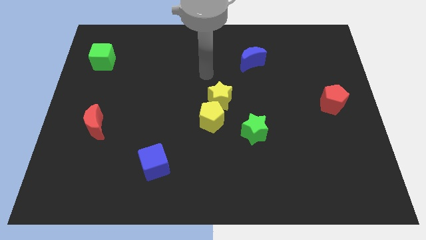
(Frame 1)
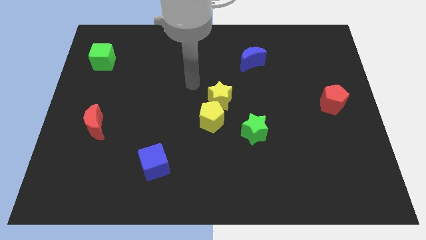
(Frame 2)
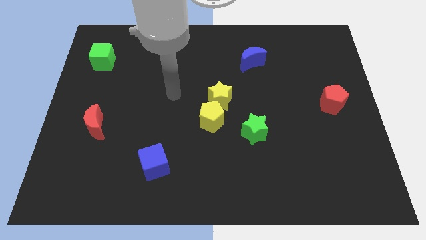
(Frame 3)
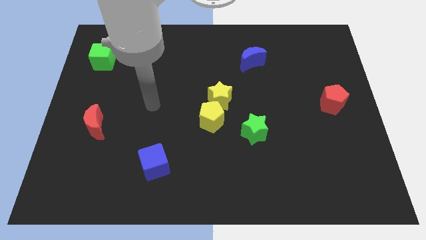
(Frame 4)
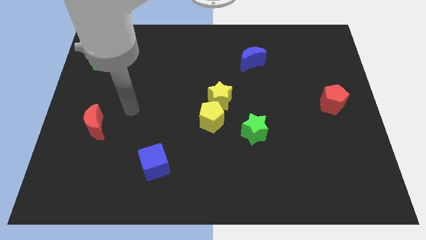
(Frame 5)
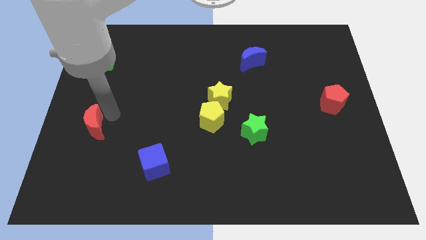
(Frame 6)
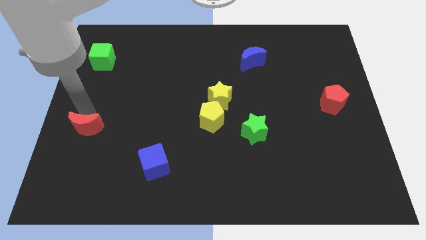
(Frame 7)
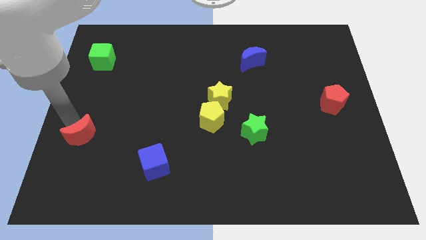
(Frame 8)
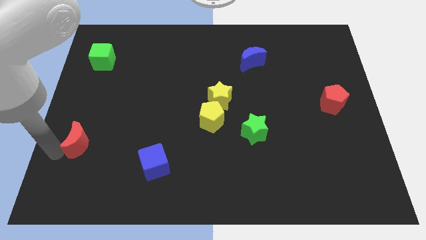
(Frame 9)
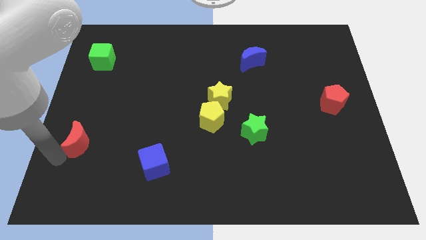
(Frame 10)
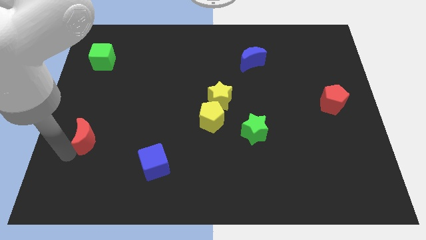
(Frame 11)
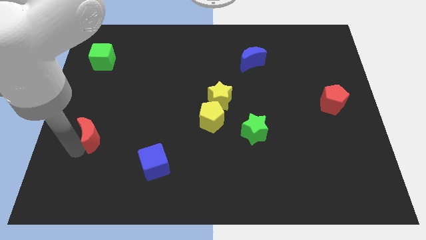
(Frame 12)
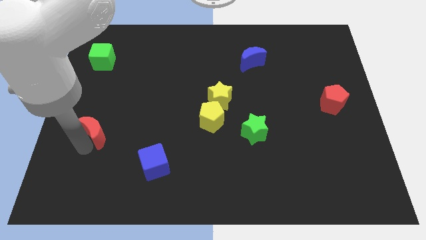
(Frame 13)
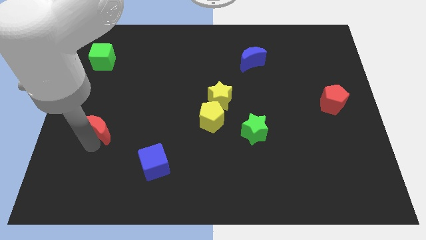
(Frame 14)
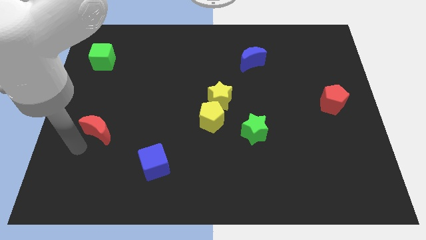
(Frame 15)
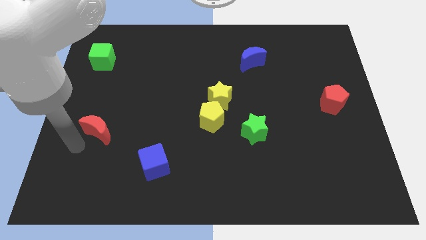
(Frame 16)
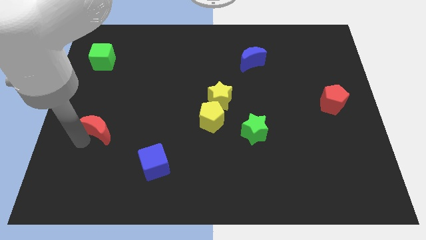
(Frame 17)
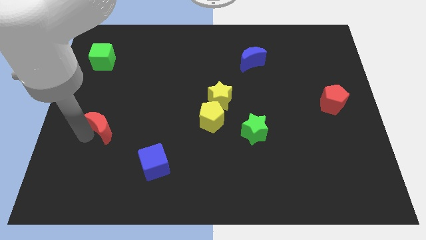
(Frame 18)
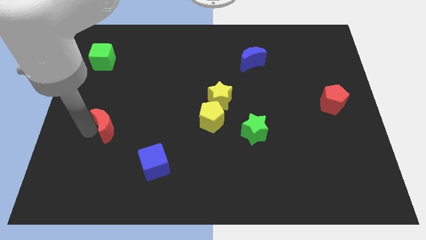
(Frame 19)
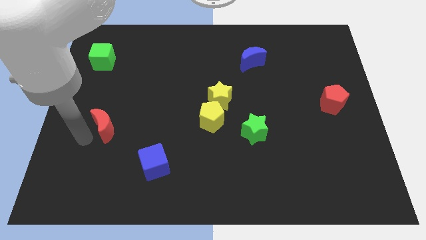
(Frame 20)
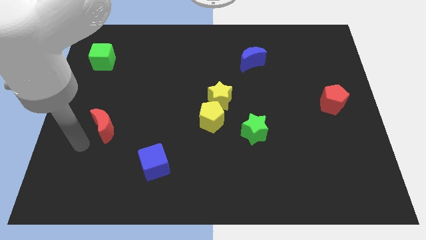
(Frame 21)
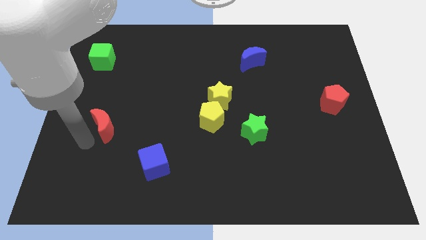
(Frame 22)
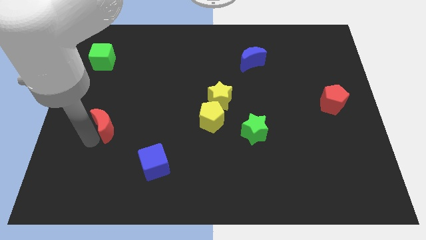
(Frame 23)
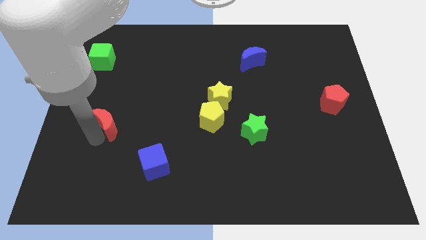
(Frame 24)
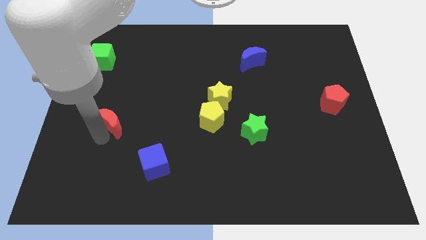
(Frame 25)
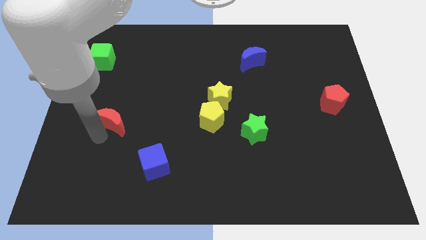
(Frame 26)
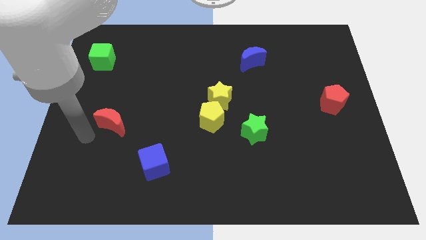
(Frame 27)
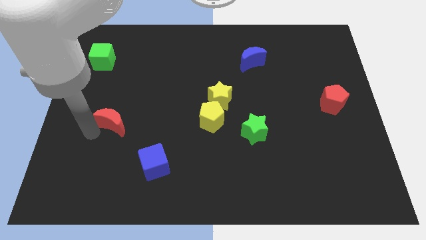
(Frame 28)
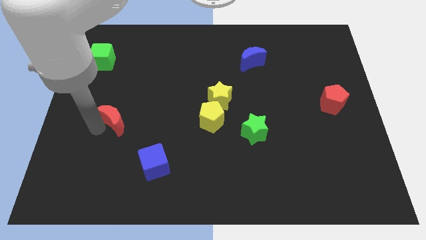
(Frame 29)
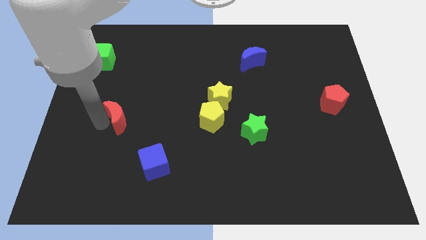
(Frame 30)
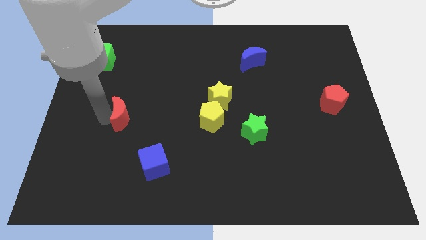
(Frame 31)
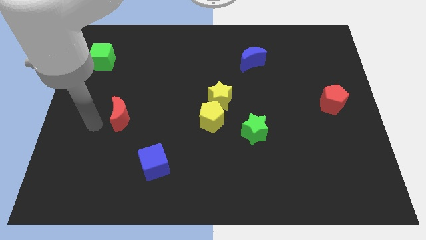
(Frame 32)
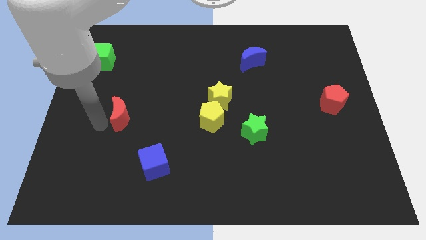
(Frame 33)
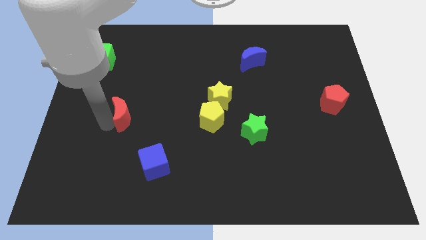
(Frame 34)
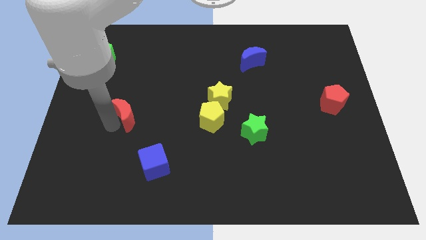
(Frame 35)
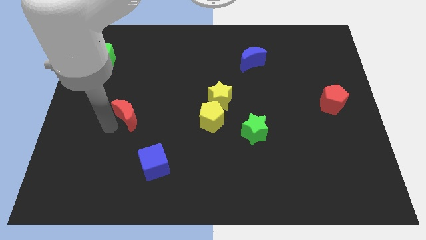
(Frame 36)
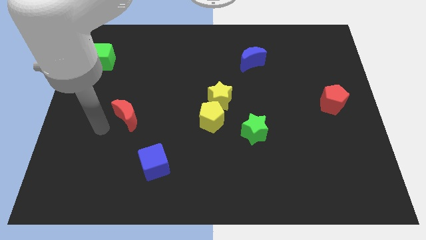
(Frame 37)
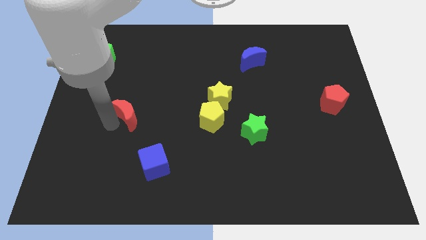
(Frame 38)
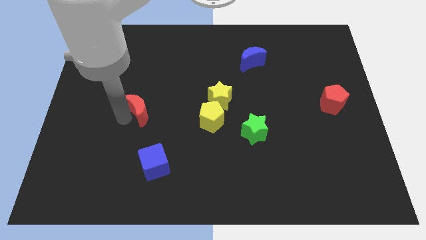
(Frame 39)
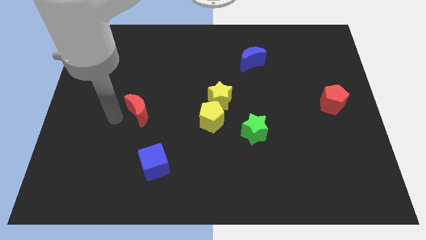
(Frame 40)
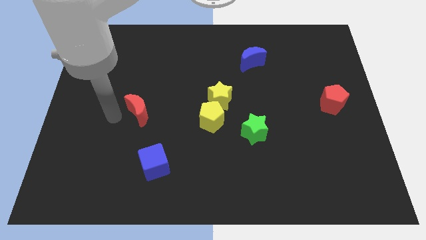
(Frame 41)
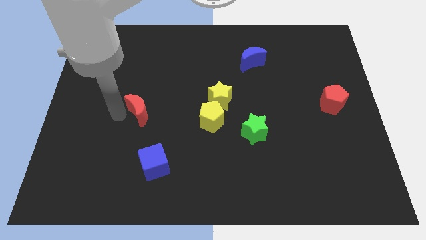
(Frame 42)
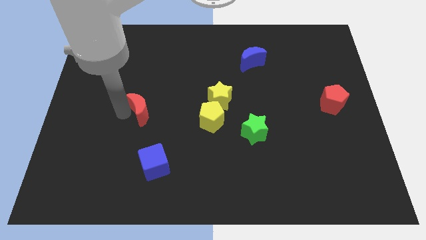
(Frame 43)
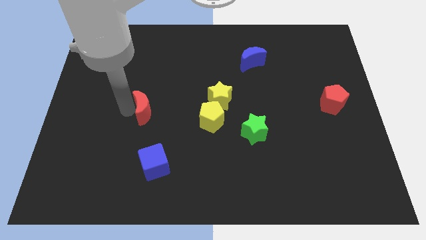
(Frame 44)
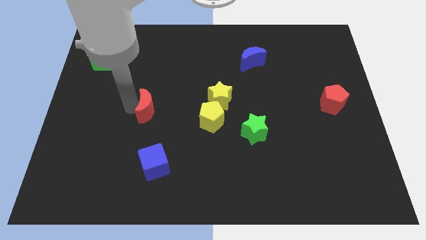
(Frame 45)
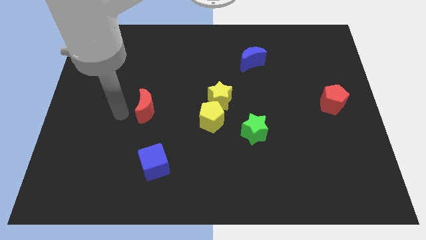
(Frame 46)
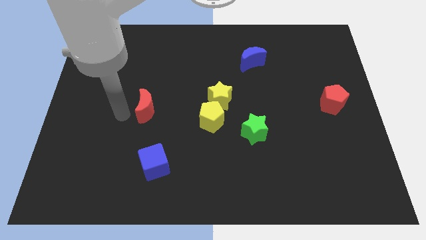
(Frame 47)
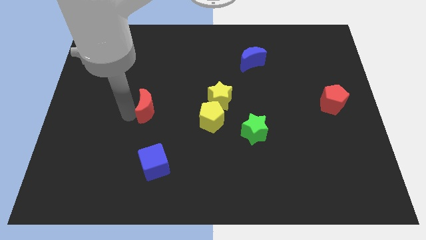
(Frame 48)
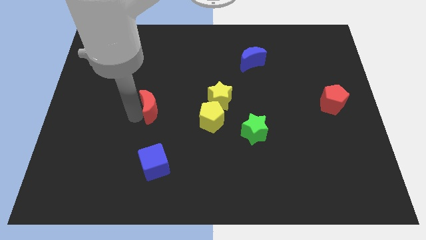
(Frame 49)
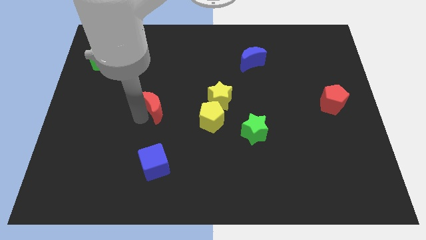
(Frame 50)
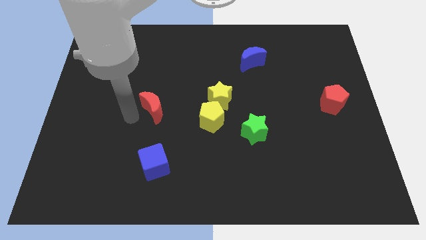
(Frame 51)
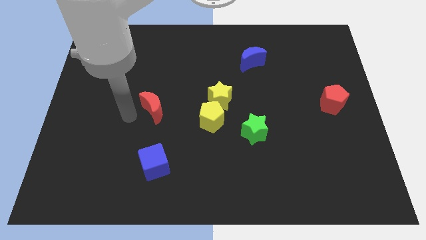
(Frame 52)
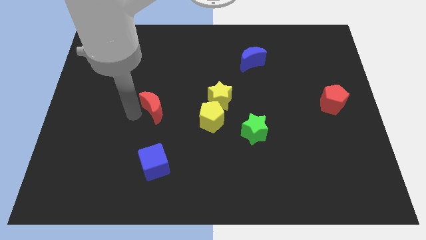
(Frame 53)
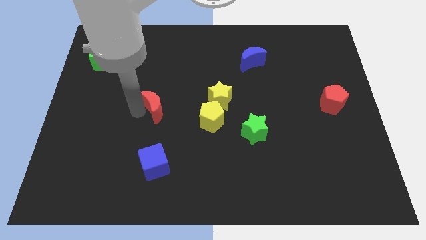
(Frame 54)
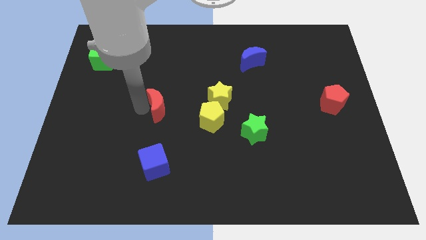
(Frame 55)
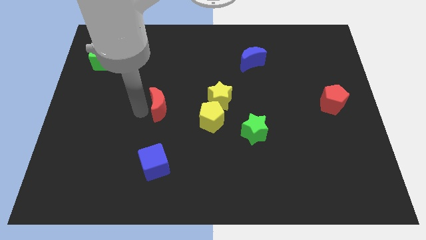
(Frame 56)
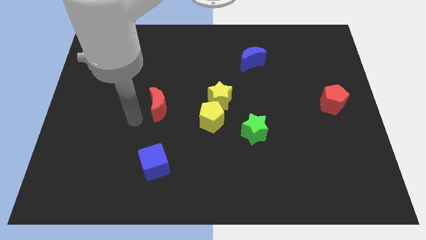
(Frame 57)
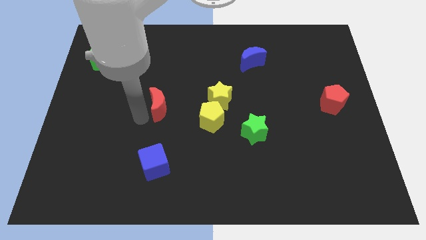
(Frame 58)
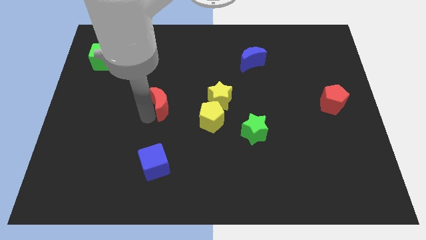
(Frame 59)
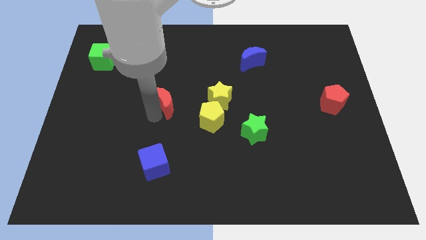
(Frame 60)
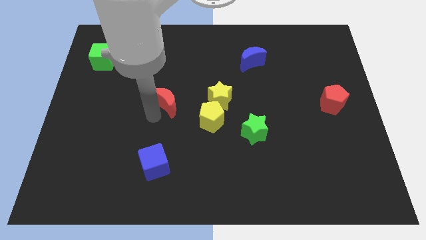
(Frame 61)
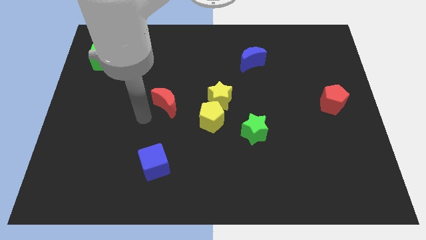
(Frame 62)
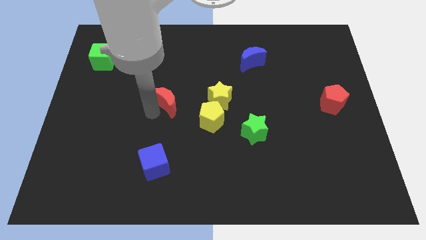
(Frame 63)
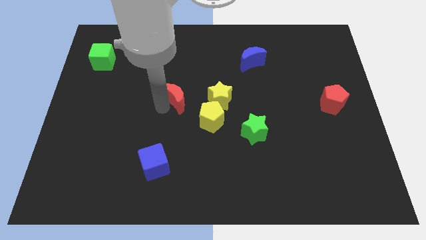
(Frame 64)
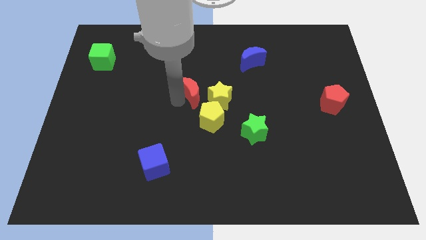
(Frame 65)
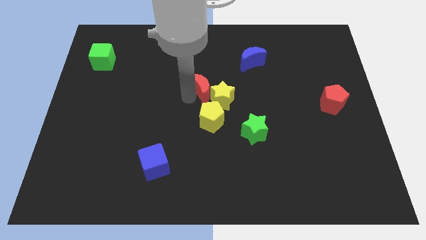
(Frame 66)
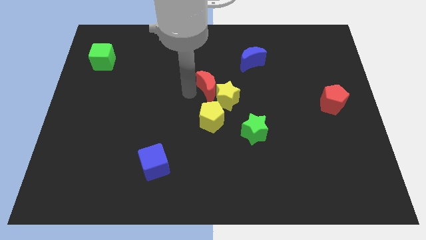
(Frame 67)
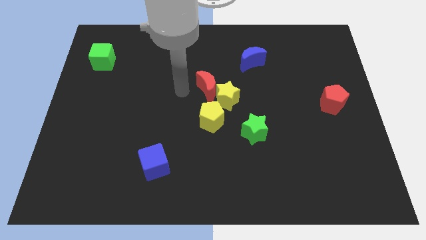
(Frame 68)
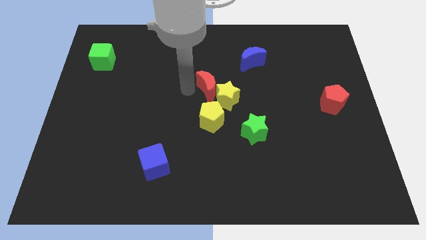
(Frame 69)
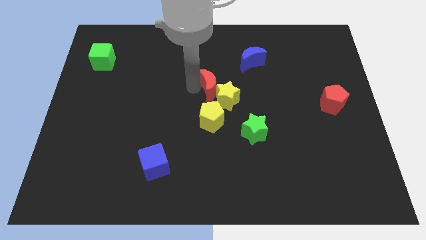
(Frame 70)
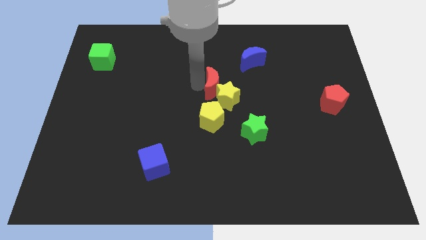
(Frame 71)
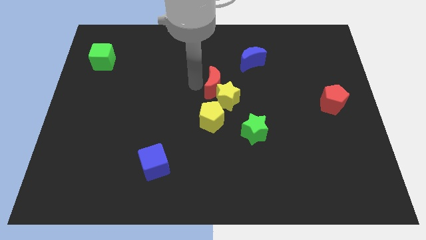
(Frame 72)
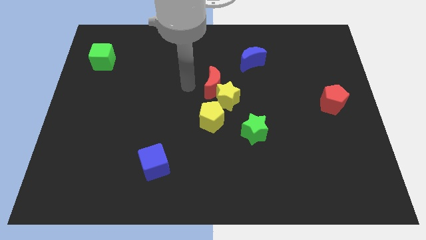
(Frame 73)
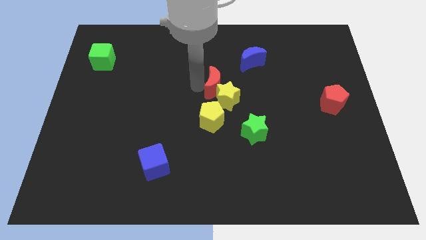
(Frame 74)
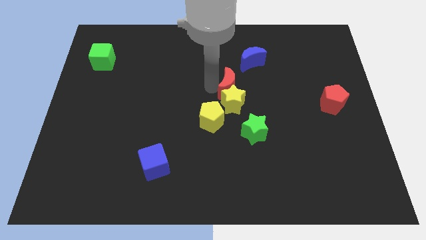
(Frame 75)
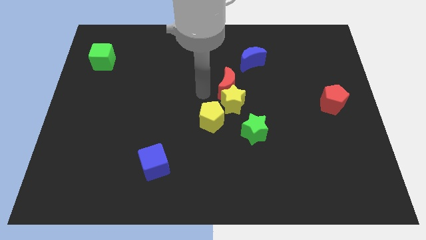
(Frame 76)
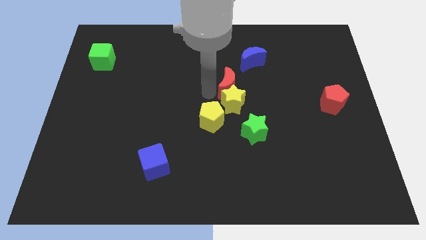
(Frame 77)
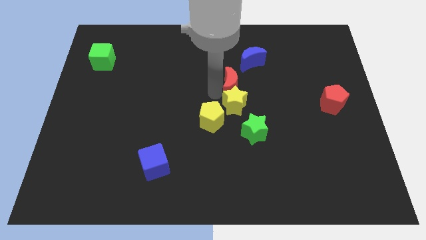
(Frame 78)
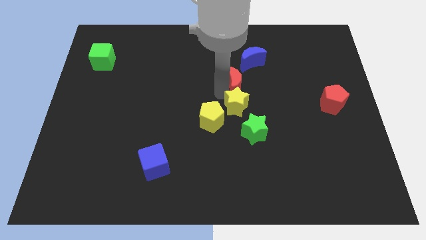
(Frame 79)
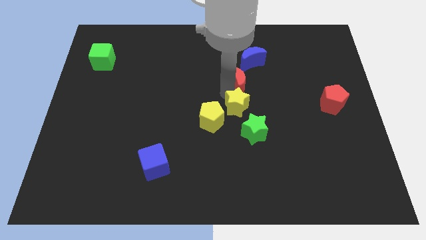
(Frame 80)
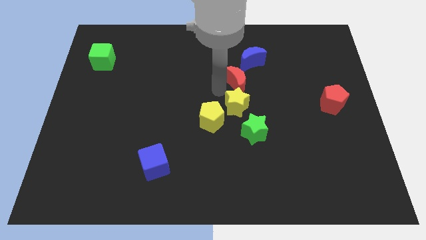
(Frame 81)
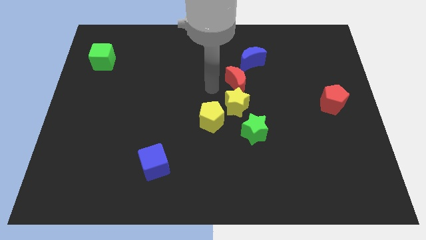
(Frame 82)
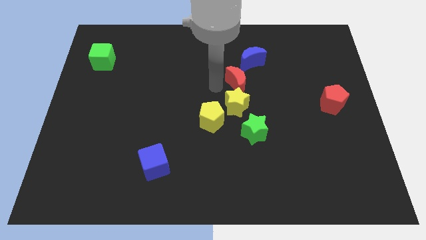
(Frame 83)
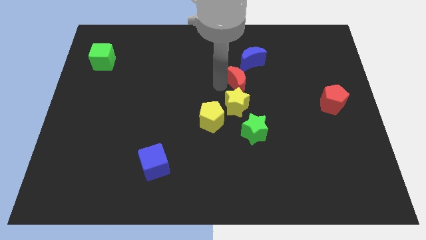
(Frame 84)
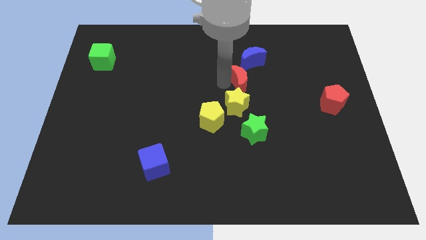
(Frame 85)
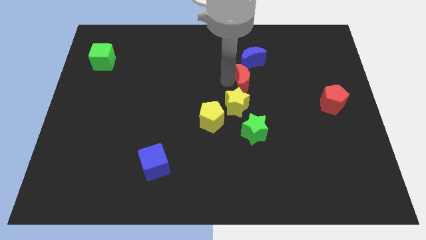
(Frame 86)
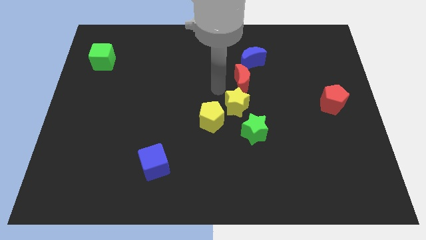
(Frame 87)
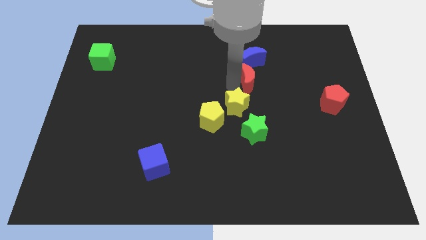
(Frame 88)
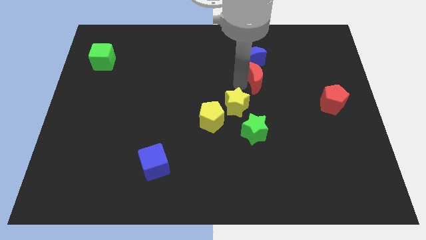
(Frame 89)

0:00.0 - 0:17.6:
slide the red moon diagonally down and to the right of the blue moon
